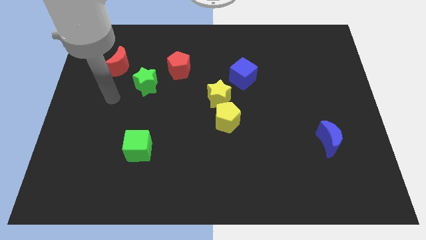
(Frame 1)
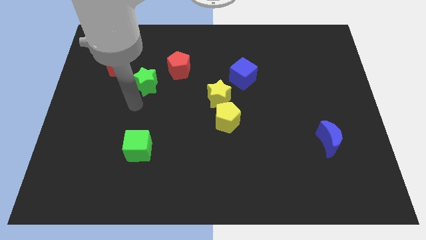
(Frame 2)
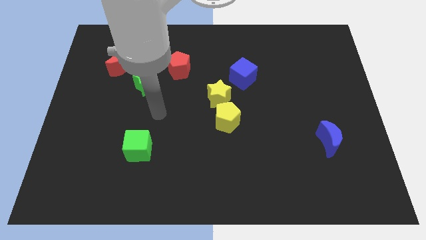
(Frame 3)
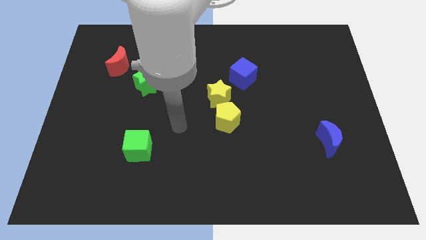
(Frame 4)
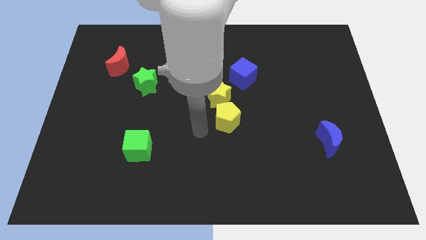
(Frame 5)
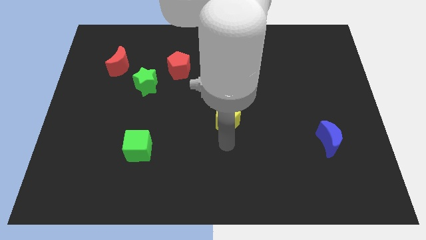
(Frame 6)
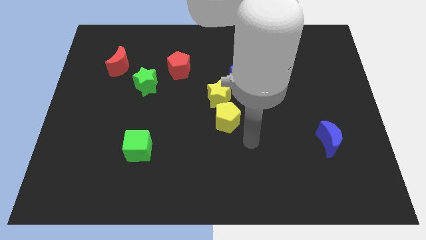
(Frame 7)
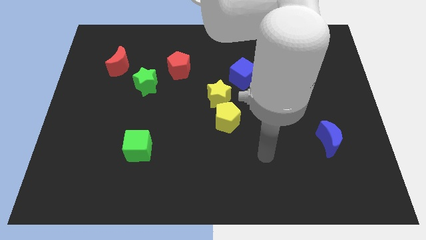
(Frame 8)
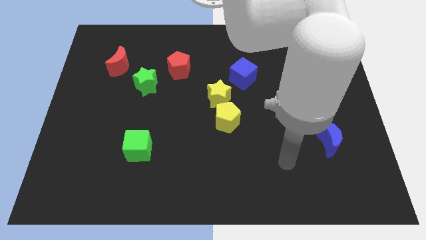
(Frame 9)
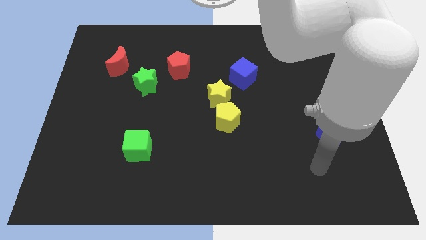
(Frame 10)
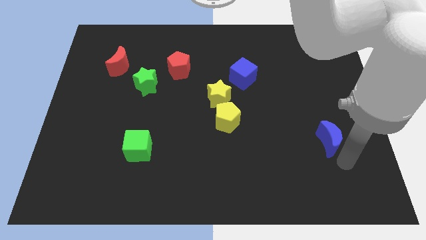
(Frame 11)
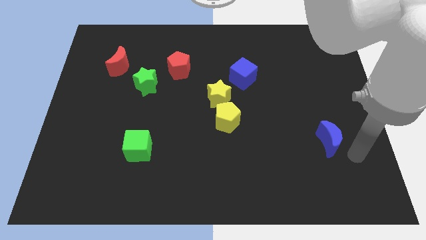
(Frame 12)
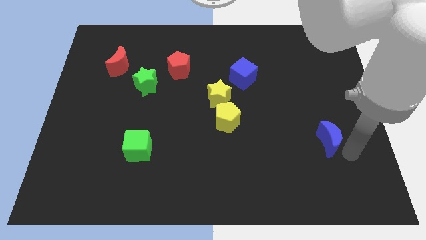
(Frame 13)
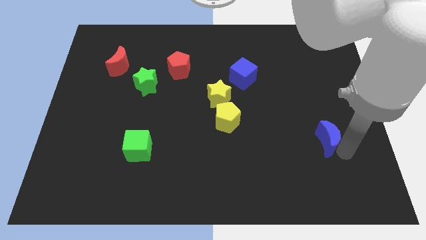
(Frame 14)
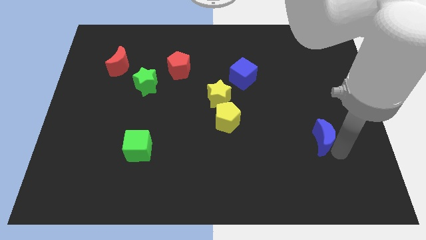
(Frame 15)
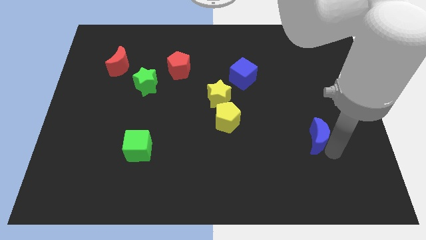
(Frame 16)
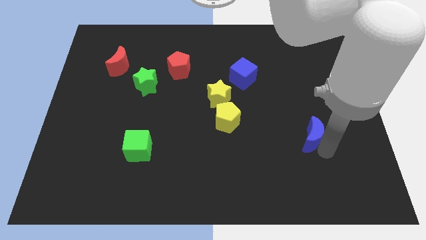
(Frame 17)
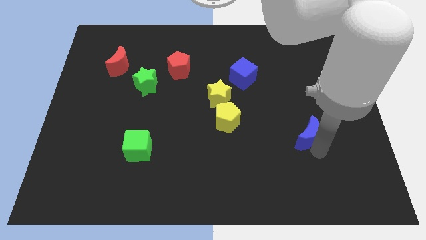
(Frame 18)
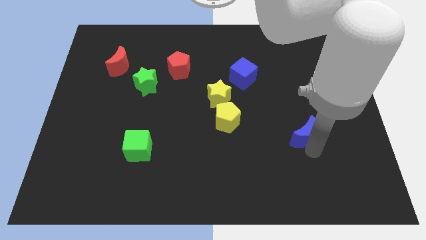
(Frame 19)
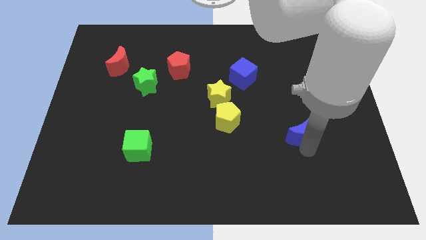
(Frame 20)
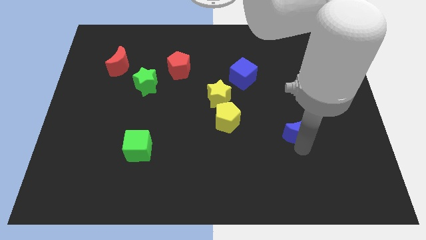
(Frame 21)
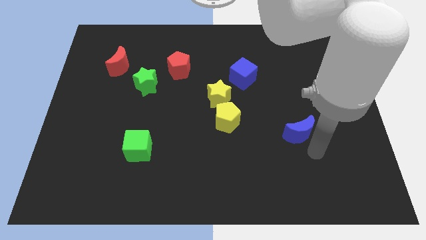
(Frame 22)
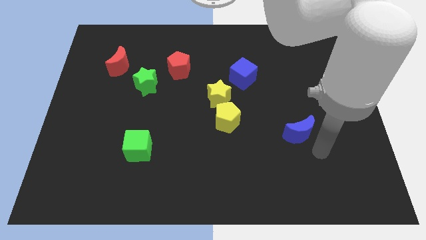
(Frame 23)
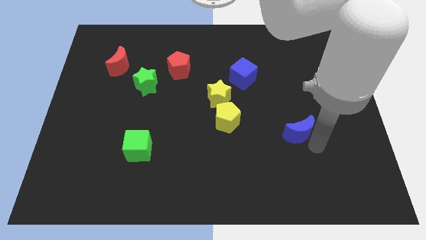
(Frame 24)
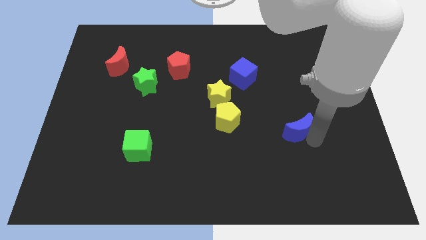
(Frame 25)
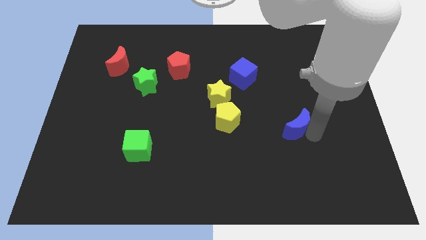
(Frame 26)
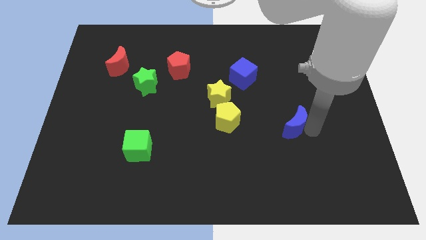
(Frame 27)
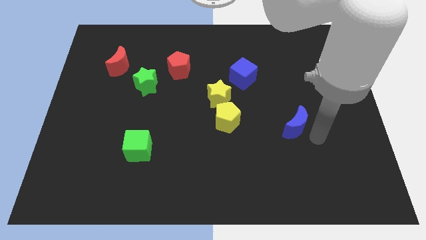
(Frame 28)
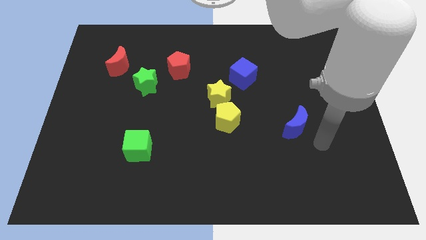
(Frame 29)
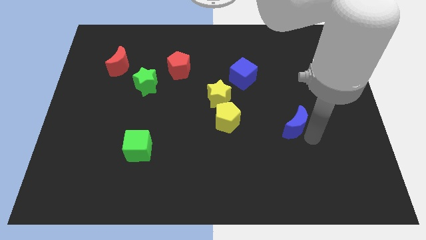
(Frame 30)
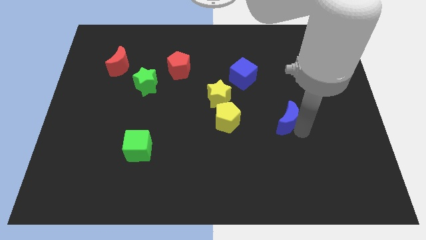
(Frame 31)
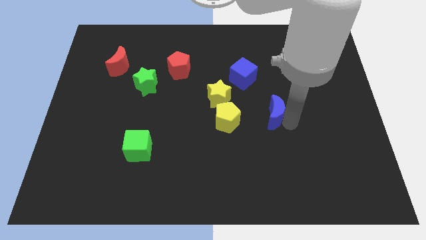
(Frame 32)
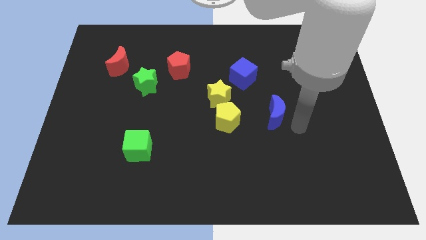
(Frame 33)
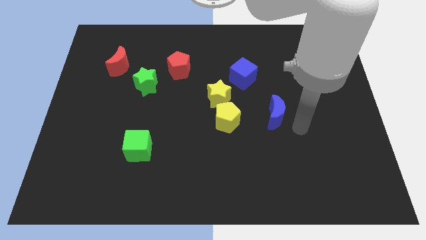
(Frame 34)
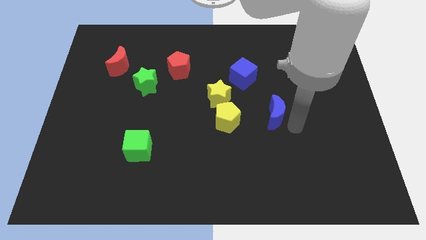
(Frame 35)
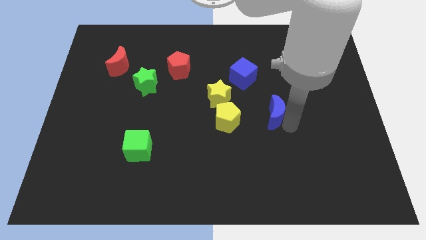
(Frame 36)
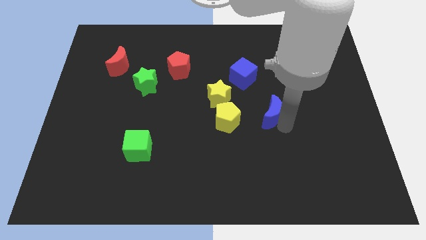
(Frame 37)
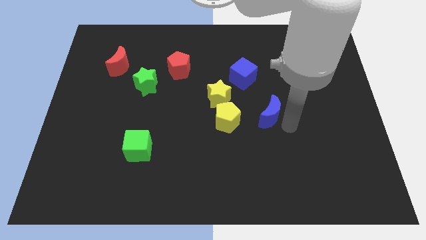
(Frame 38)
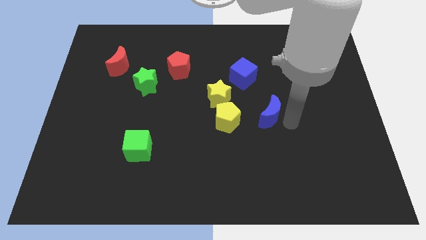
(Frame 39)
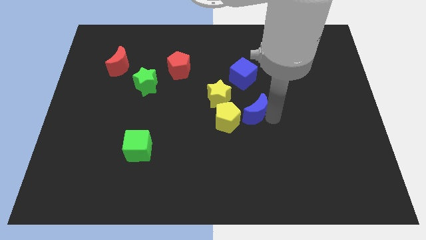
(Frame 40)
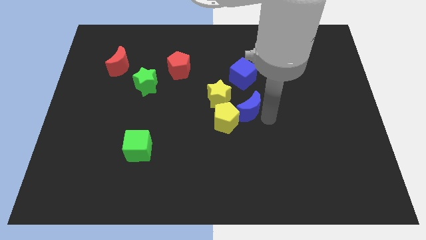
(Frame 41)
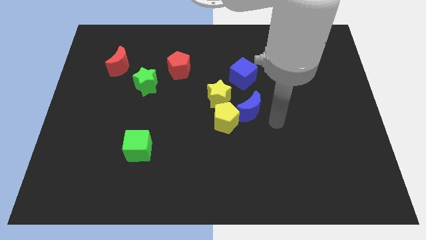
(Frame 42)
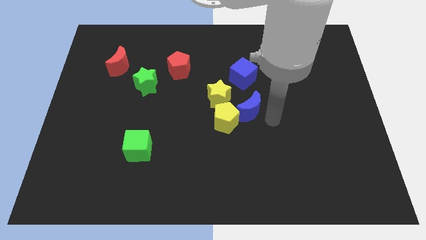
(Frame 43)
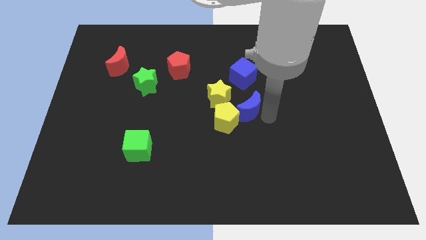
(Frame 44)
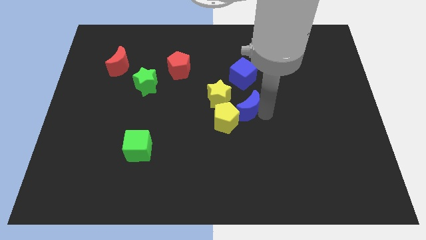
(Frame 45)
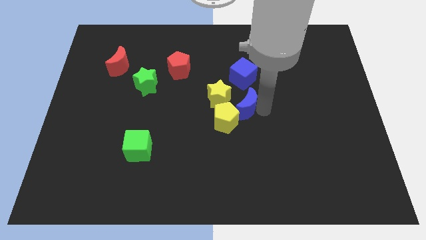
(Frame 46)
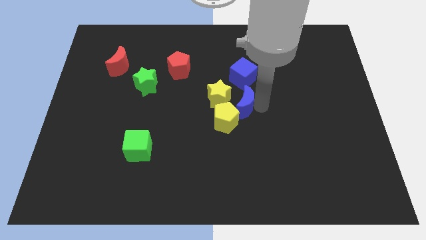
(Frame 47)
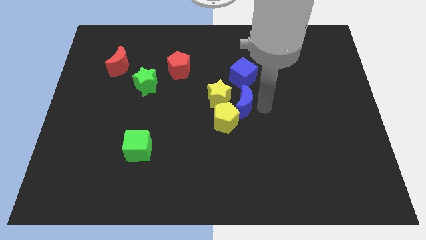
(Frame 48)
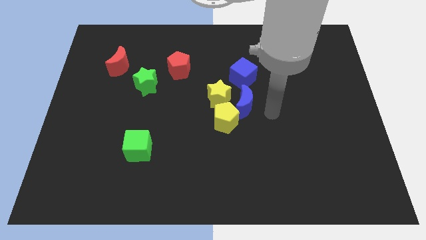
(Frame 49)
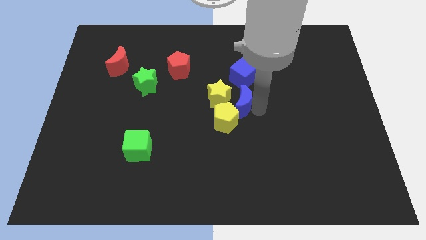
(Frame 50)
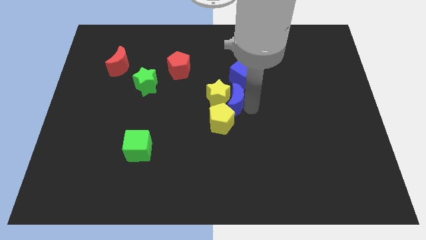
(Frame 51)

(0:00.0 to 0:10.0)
slide the blue moon to the yellow star

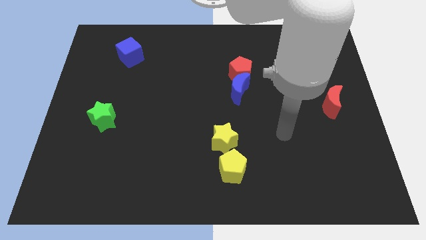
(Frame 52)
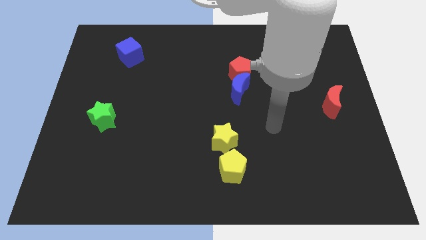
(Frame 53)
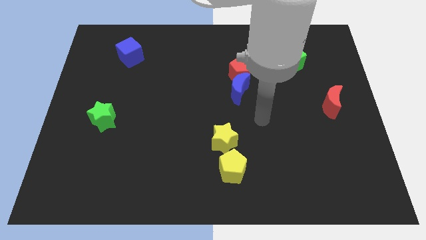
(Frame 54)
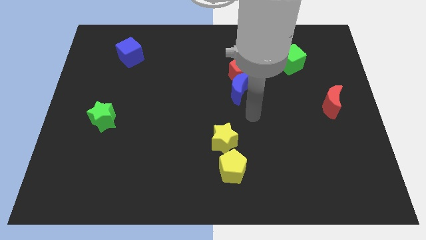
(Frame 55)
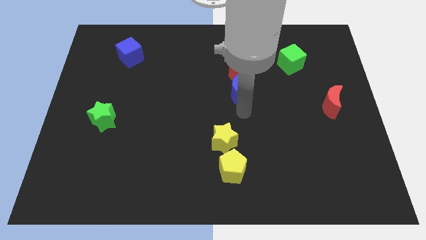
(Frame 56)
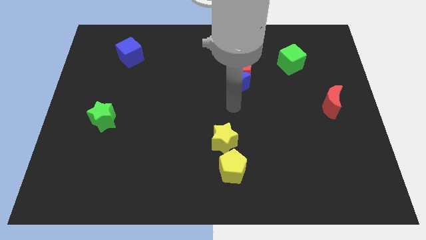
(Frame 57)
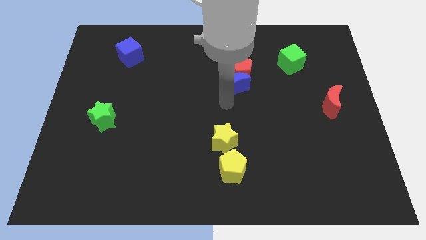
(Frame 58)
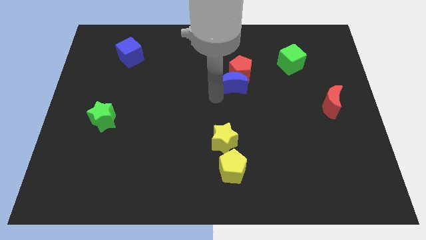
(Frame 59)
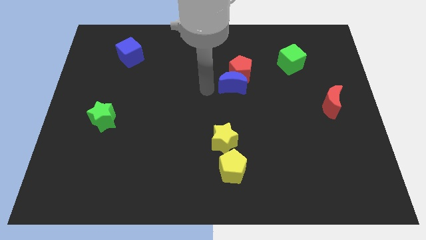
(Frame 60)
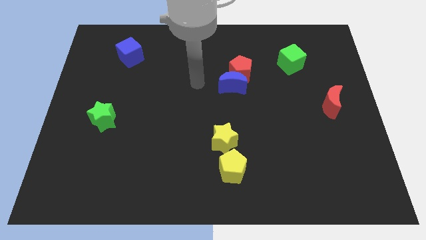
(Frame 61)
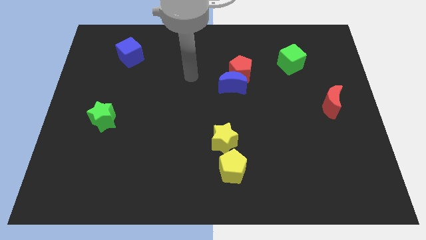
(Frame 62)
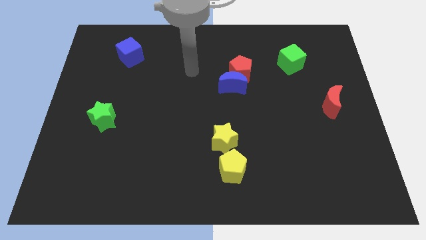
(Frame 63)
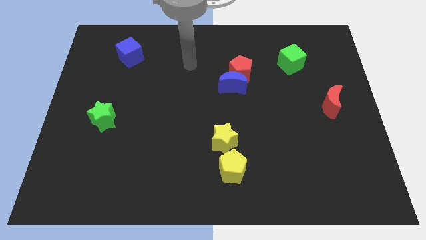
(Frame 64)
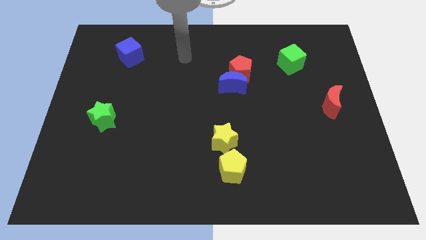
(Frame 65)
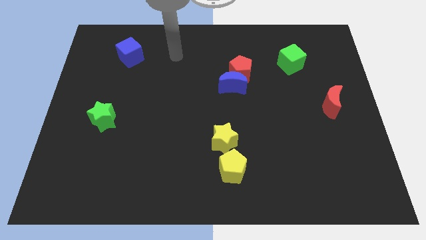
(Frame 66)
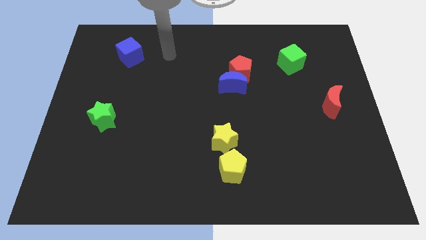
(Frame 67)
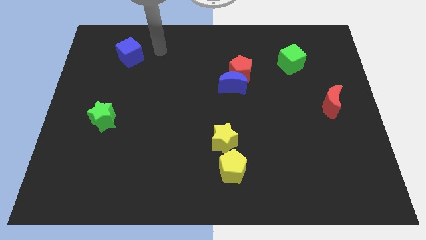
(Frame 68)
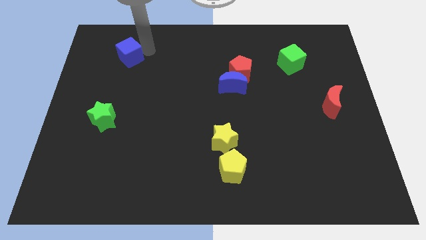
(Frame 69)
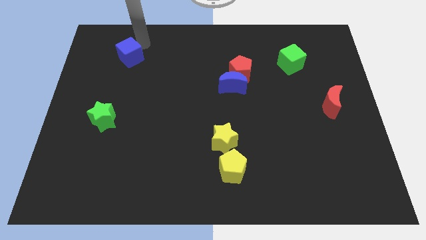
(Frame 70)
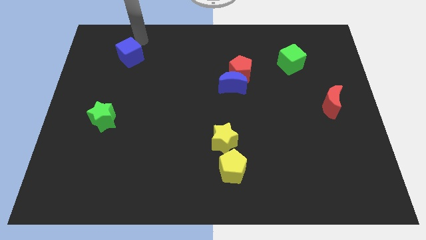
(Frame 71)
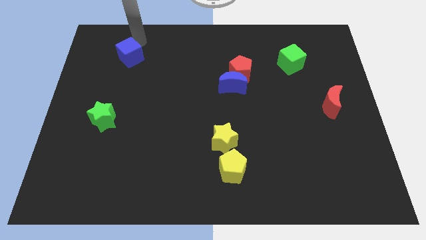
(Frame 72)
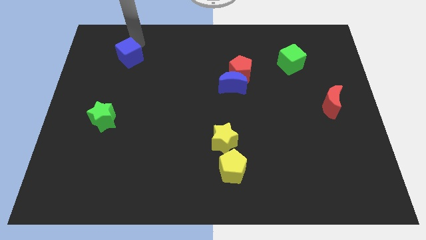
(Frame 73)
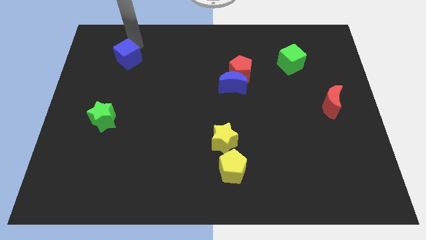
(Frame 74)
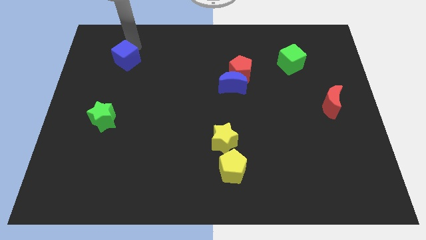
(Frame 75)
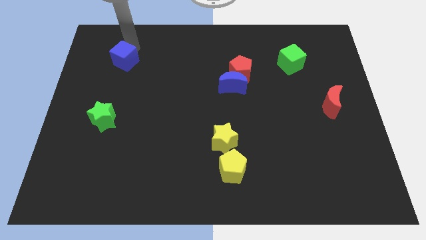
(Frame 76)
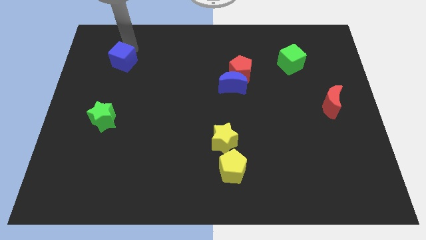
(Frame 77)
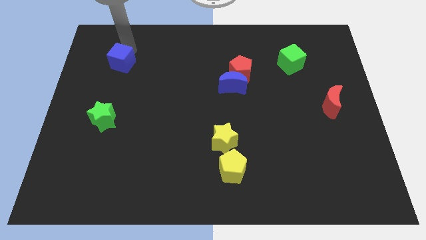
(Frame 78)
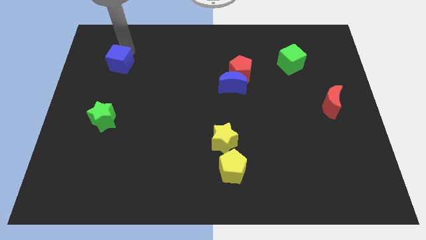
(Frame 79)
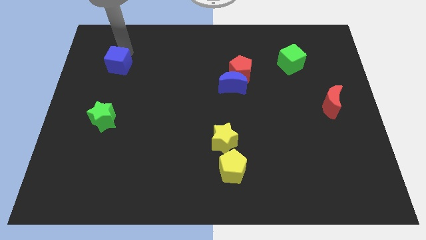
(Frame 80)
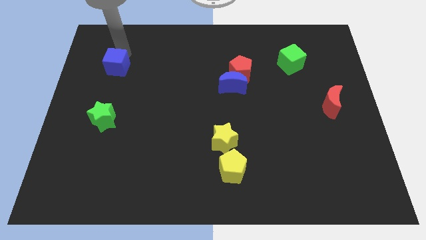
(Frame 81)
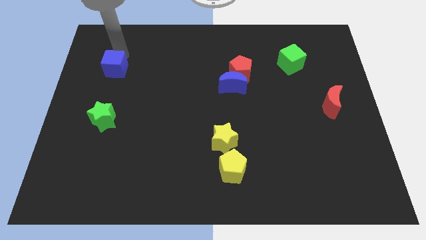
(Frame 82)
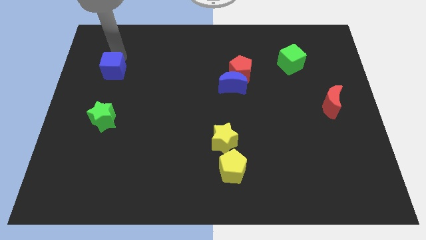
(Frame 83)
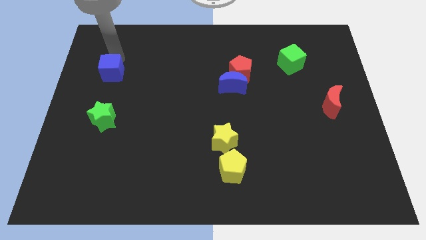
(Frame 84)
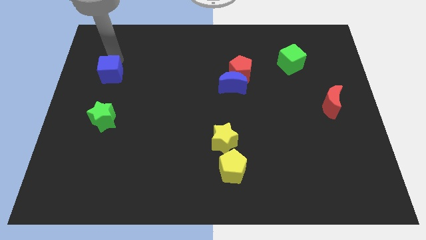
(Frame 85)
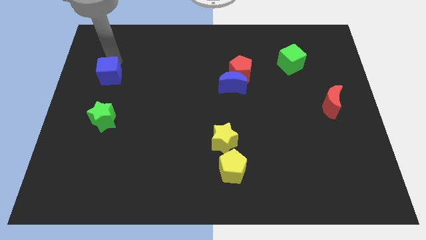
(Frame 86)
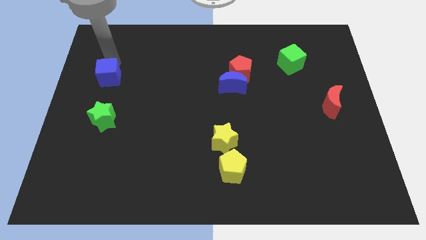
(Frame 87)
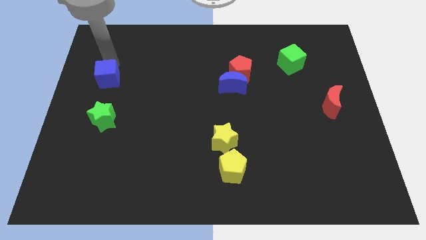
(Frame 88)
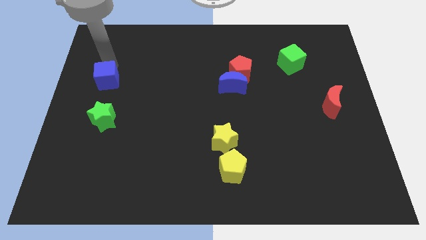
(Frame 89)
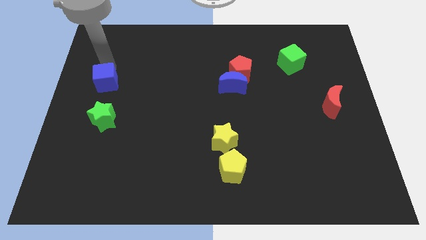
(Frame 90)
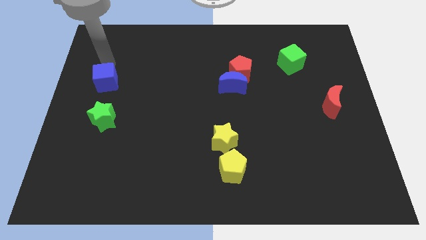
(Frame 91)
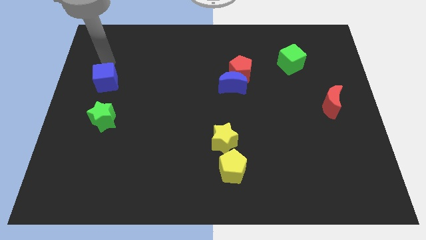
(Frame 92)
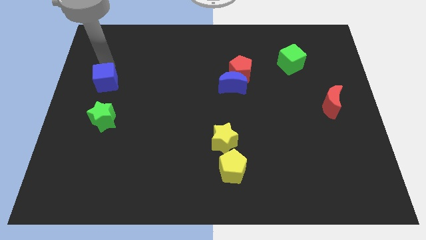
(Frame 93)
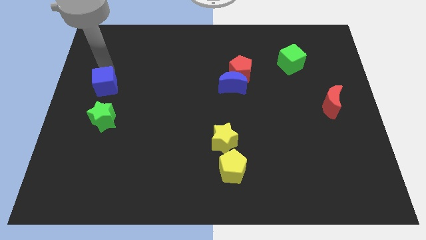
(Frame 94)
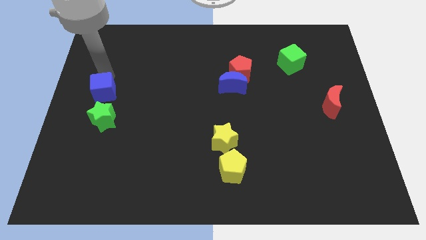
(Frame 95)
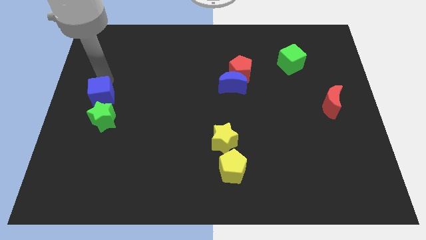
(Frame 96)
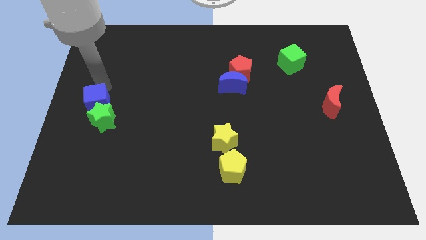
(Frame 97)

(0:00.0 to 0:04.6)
put the blue cube to the green star
